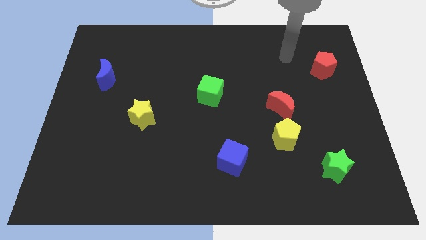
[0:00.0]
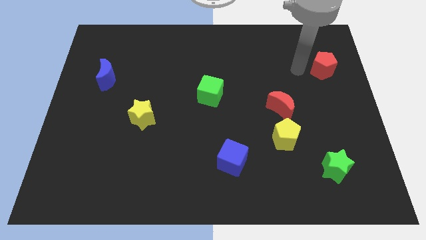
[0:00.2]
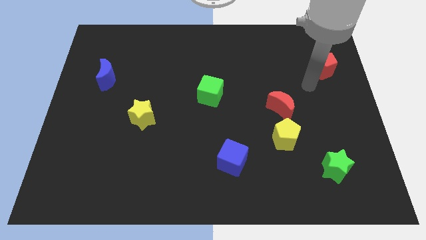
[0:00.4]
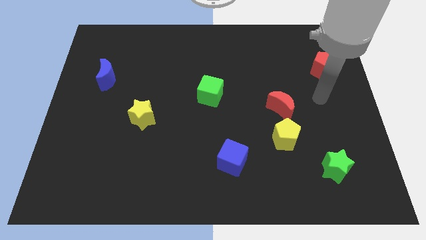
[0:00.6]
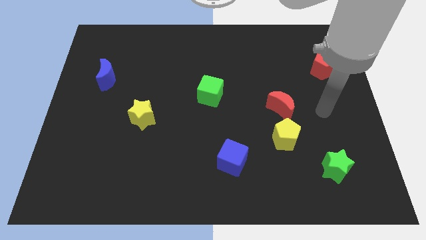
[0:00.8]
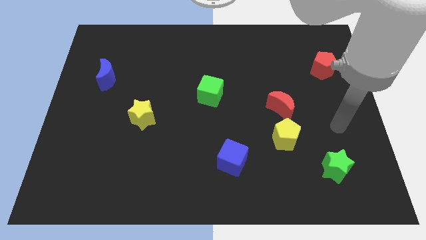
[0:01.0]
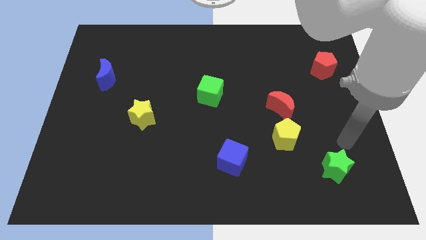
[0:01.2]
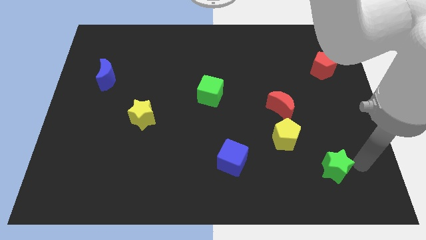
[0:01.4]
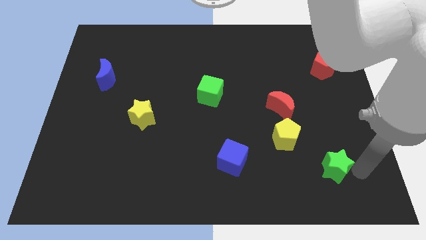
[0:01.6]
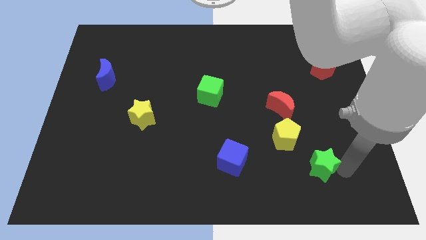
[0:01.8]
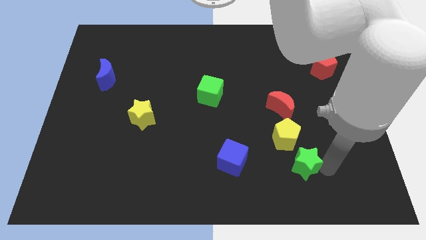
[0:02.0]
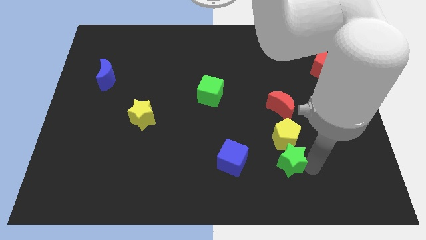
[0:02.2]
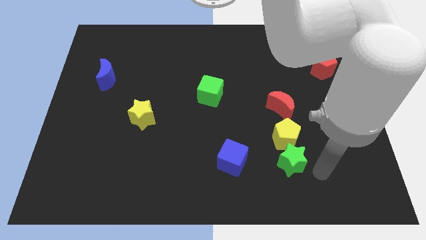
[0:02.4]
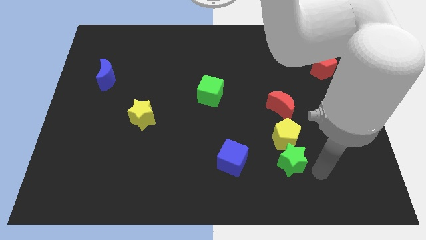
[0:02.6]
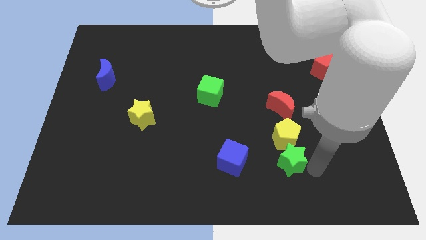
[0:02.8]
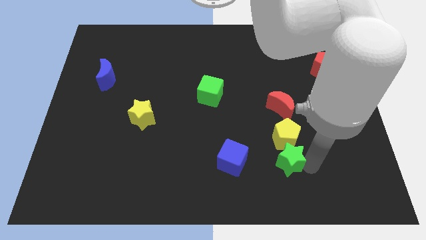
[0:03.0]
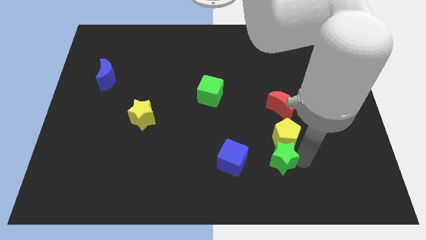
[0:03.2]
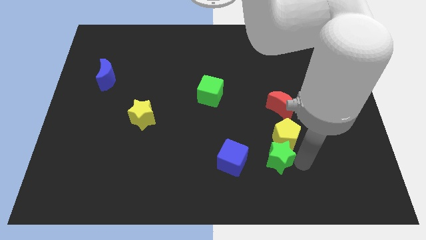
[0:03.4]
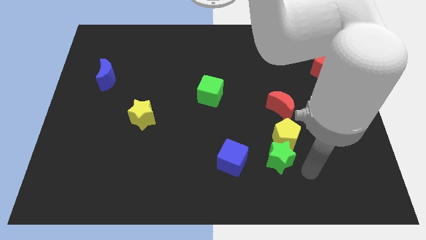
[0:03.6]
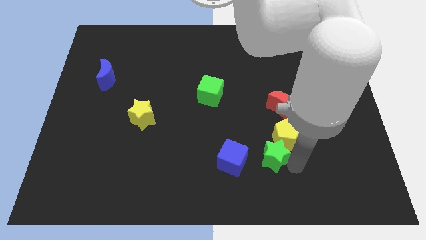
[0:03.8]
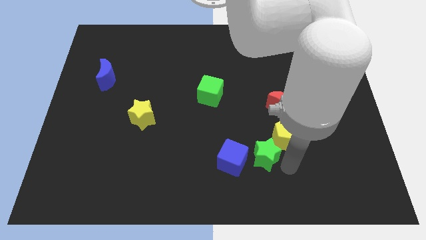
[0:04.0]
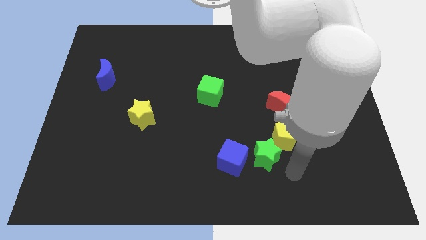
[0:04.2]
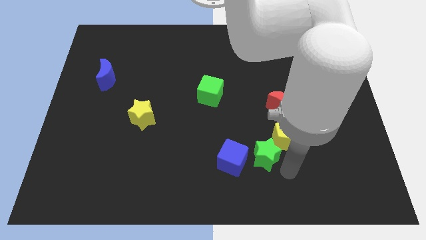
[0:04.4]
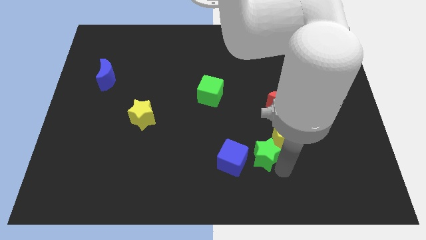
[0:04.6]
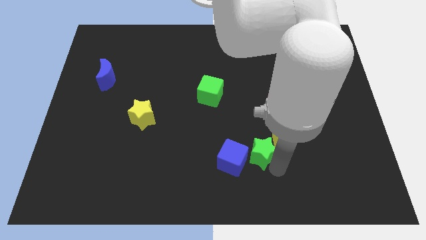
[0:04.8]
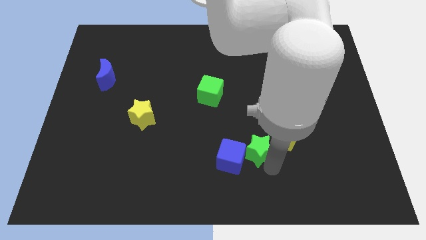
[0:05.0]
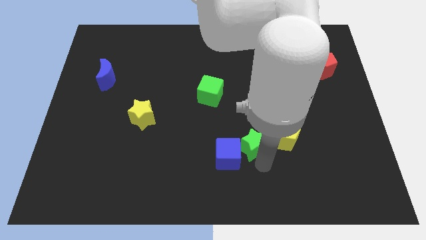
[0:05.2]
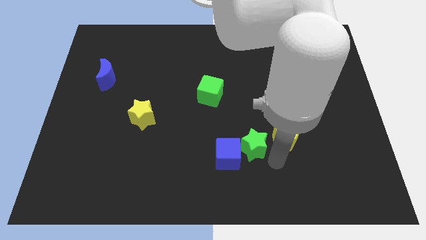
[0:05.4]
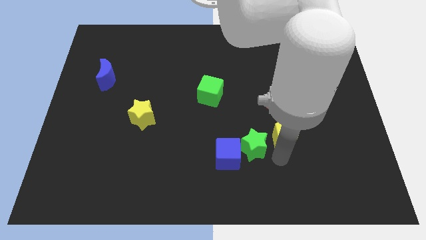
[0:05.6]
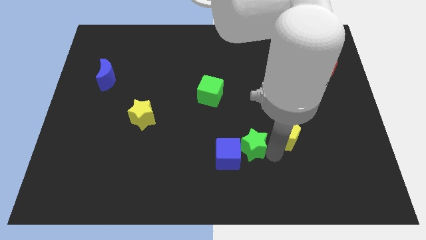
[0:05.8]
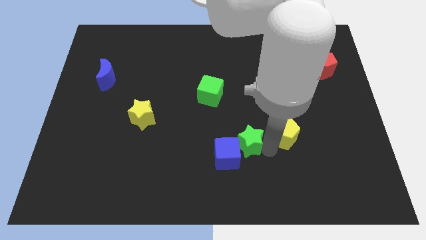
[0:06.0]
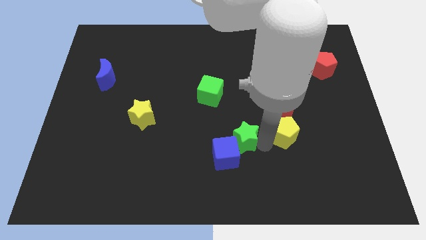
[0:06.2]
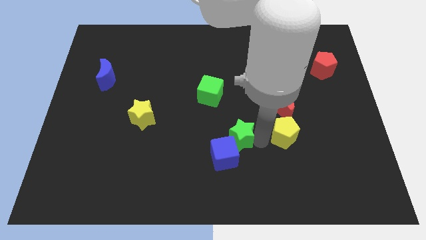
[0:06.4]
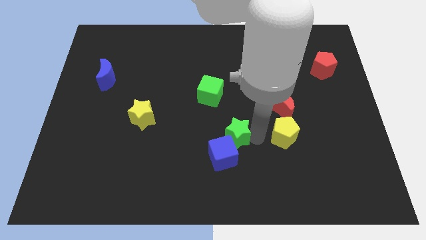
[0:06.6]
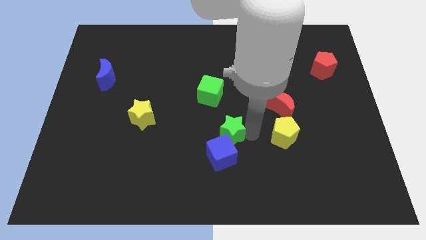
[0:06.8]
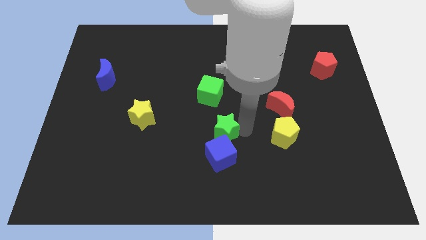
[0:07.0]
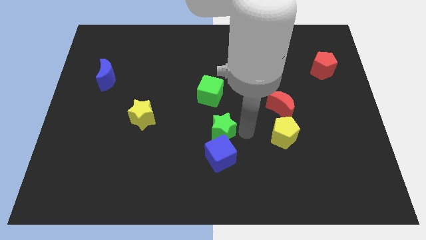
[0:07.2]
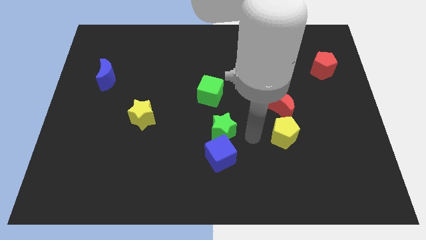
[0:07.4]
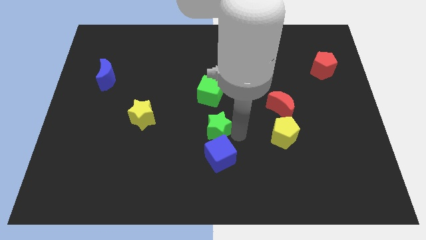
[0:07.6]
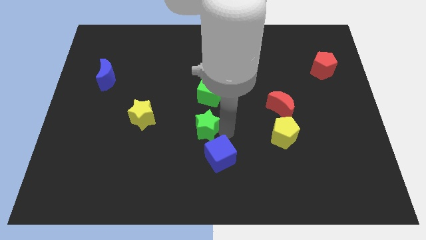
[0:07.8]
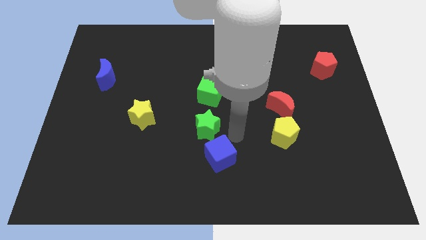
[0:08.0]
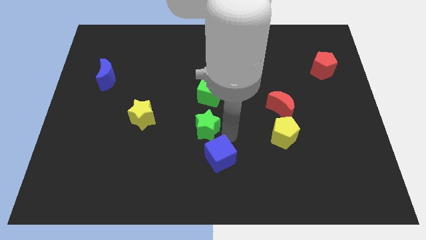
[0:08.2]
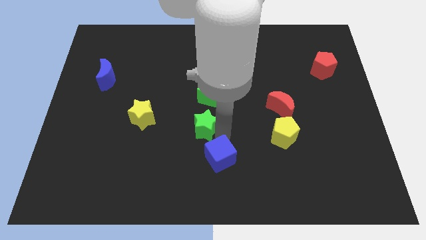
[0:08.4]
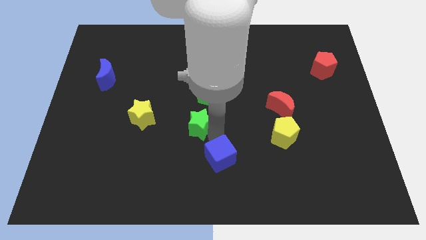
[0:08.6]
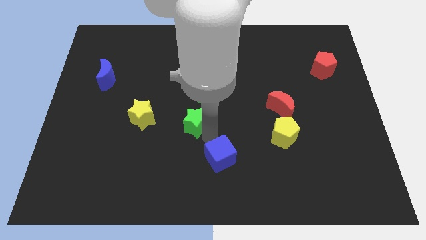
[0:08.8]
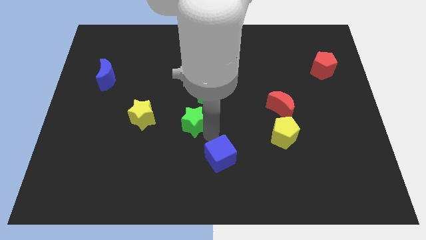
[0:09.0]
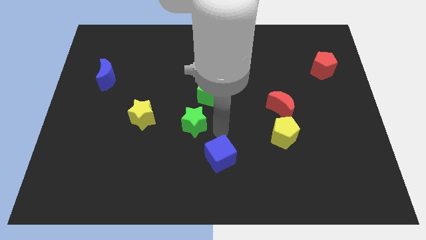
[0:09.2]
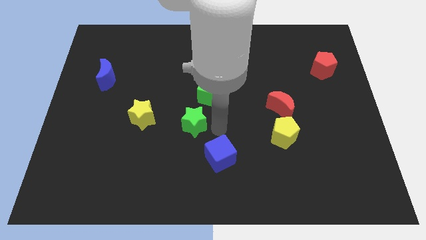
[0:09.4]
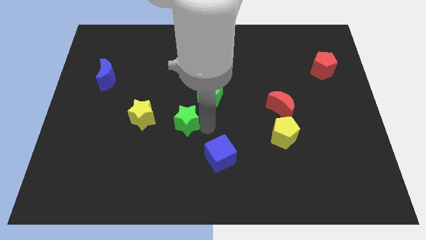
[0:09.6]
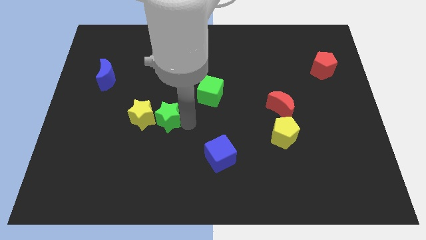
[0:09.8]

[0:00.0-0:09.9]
move the green star next to the yellow star

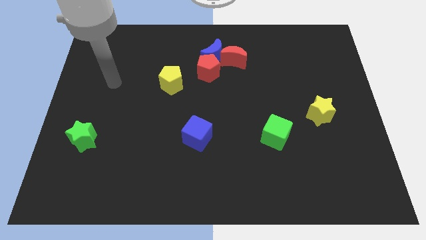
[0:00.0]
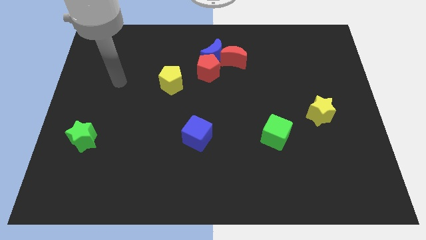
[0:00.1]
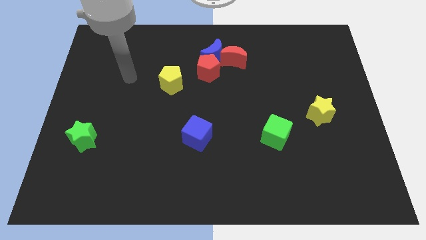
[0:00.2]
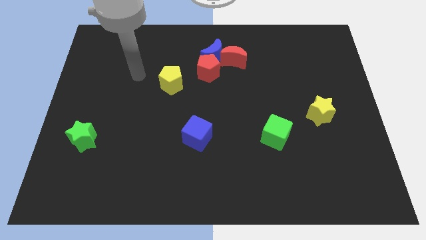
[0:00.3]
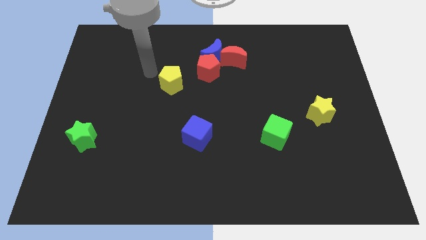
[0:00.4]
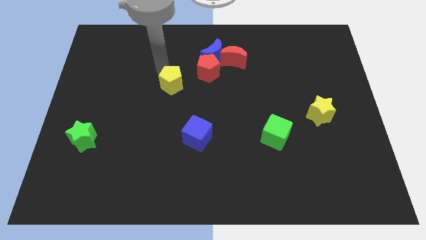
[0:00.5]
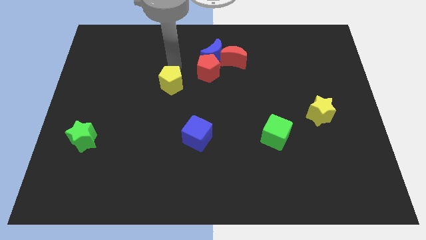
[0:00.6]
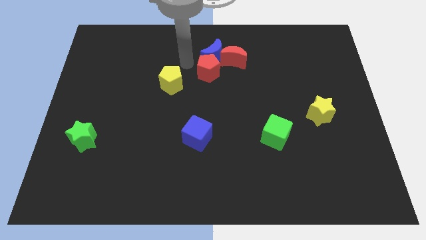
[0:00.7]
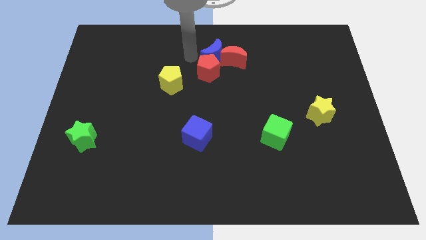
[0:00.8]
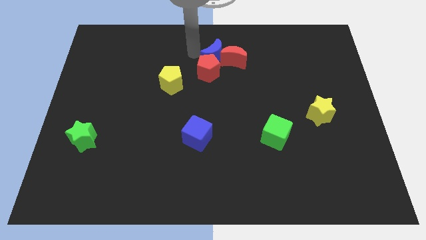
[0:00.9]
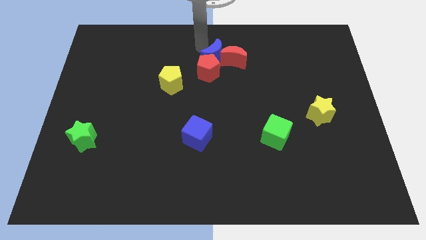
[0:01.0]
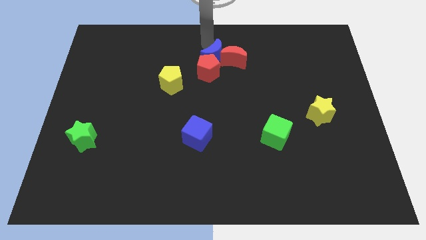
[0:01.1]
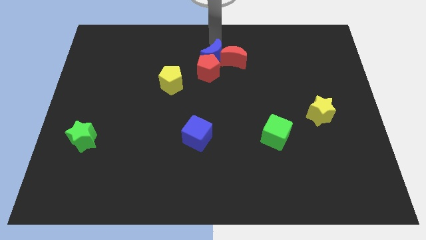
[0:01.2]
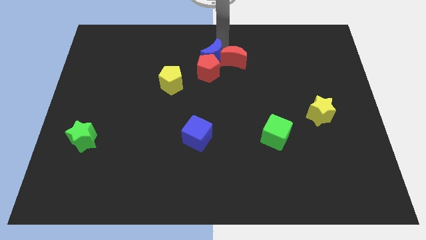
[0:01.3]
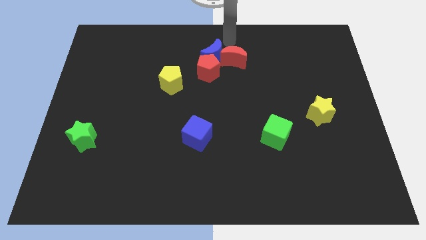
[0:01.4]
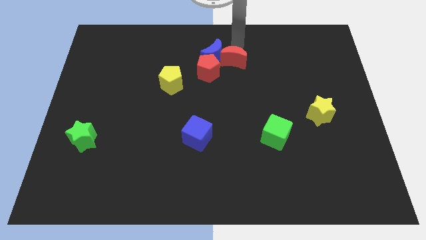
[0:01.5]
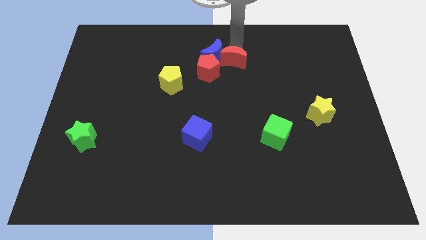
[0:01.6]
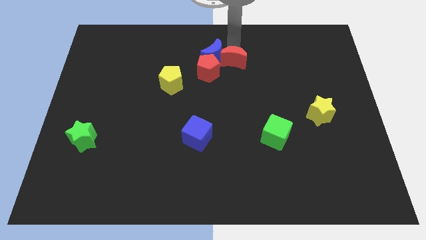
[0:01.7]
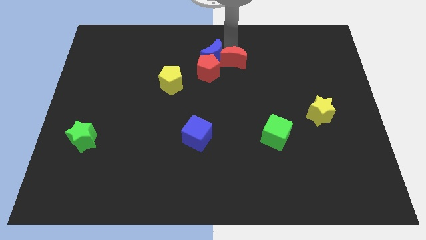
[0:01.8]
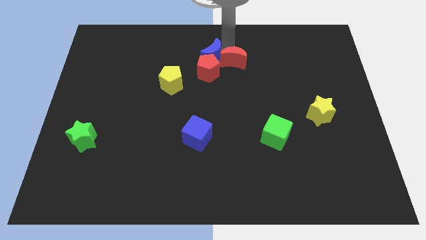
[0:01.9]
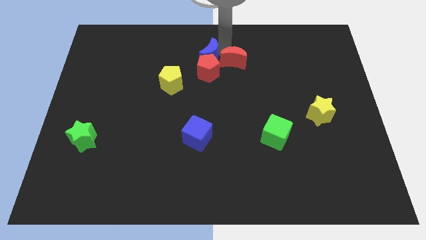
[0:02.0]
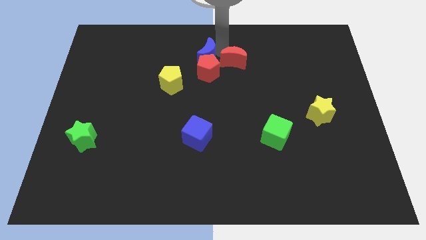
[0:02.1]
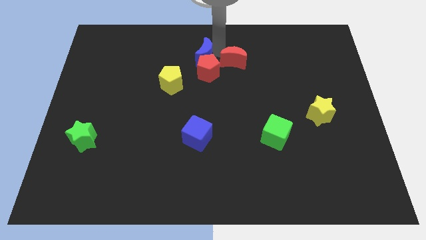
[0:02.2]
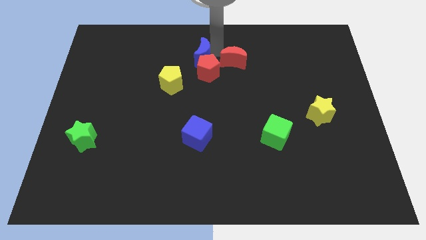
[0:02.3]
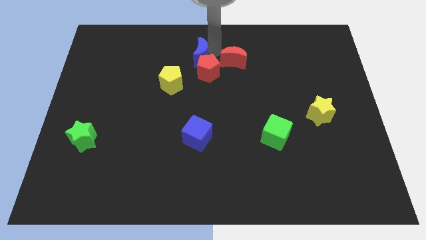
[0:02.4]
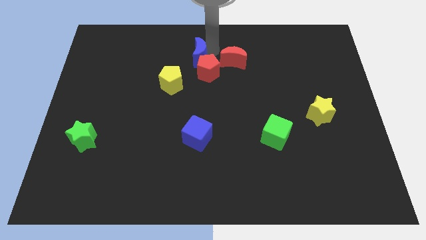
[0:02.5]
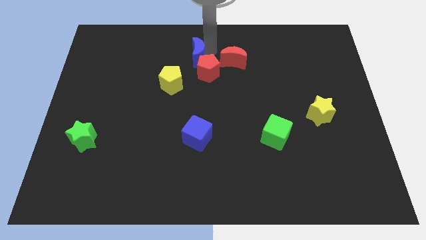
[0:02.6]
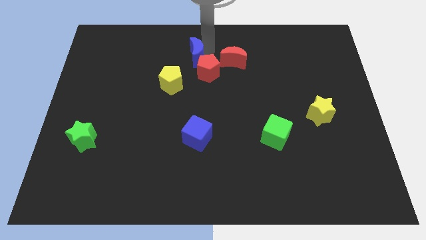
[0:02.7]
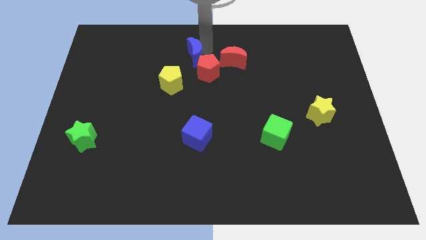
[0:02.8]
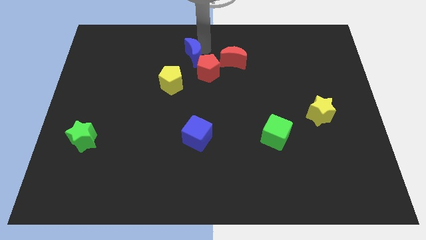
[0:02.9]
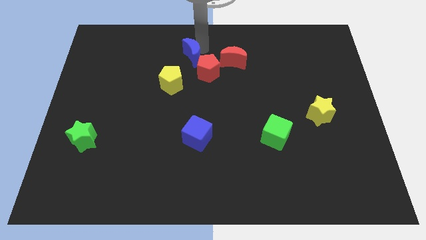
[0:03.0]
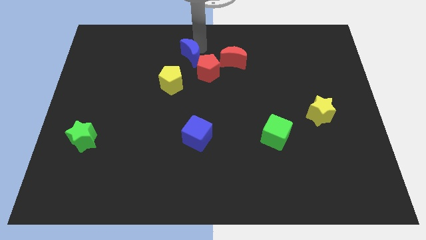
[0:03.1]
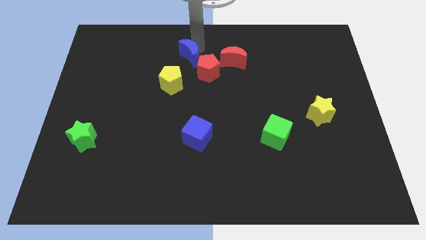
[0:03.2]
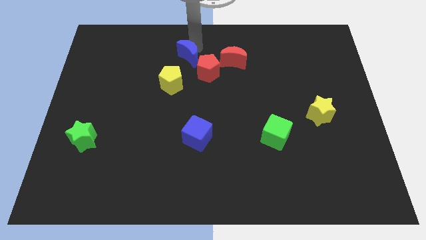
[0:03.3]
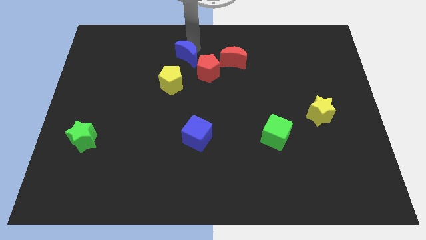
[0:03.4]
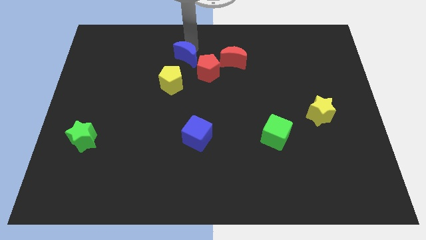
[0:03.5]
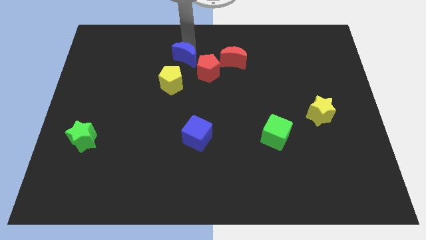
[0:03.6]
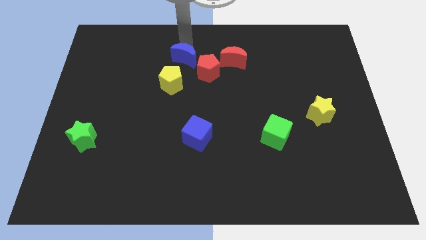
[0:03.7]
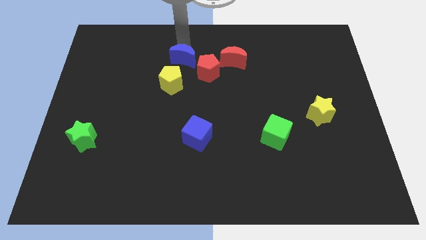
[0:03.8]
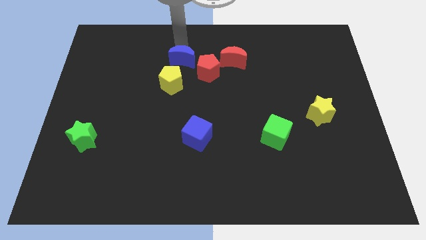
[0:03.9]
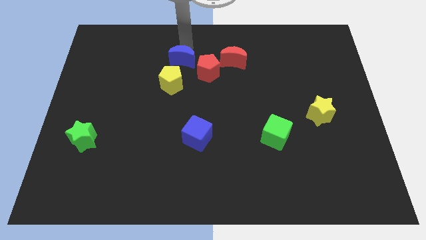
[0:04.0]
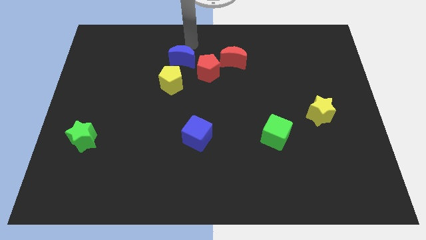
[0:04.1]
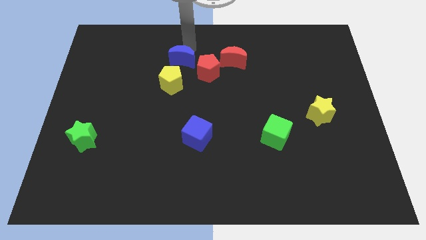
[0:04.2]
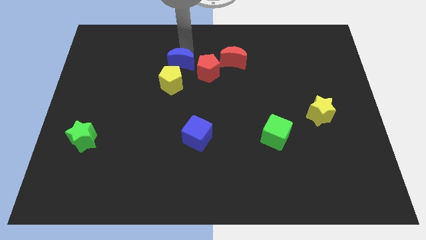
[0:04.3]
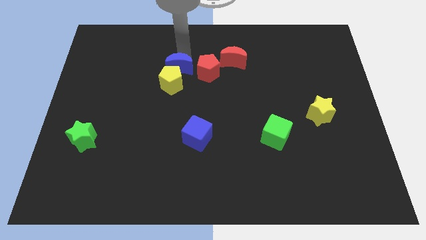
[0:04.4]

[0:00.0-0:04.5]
put the blue moon close to the yellow pentagon
